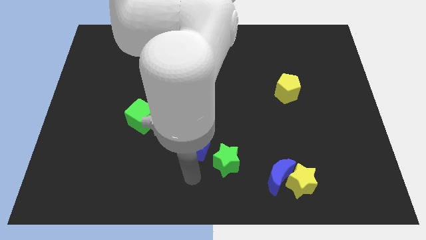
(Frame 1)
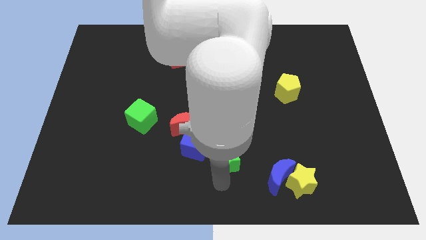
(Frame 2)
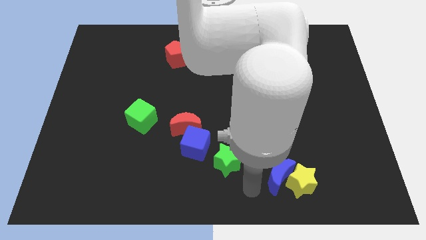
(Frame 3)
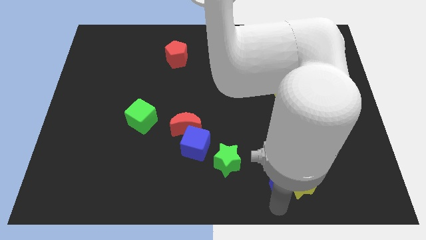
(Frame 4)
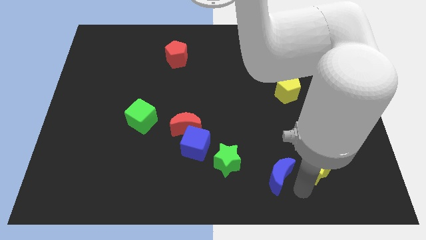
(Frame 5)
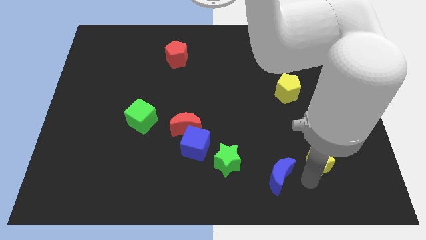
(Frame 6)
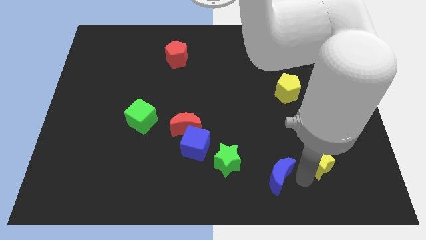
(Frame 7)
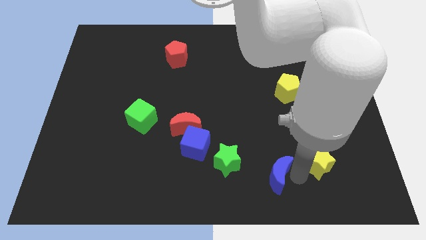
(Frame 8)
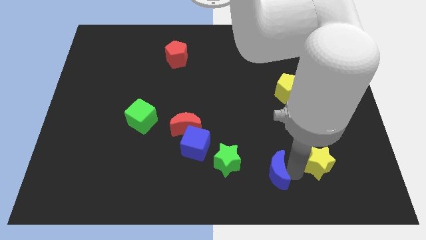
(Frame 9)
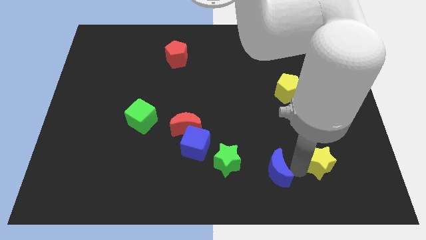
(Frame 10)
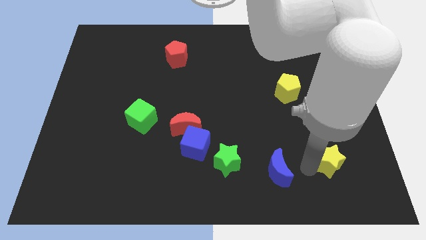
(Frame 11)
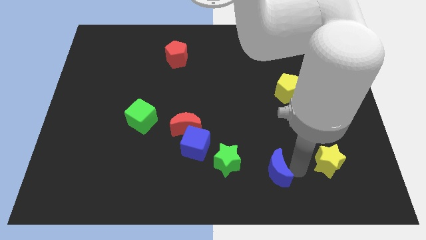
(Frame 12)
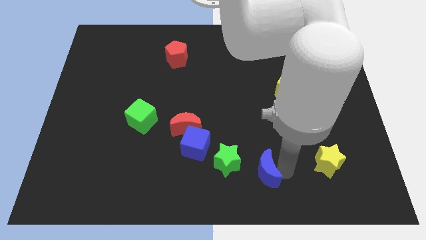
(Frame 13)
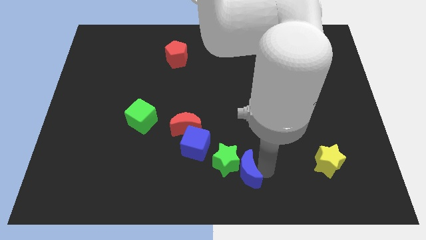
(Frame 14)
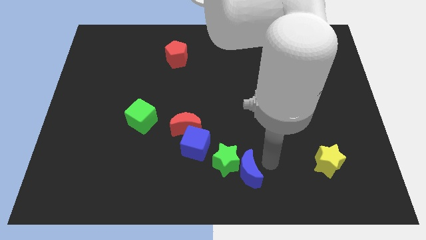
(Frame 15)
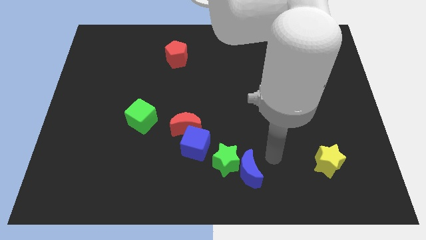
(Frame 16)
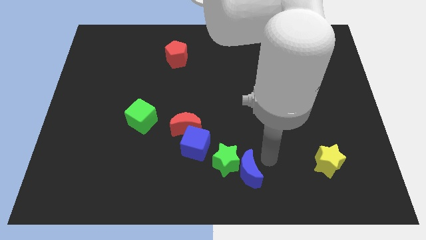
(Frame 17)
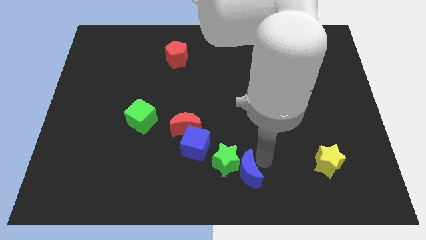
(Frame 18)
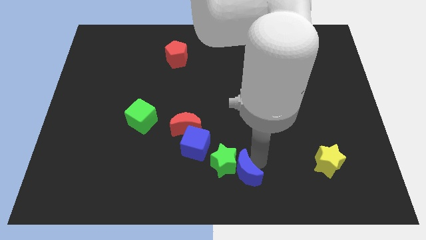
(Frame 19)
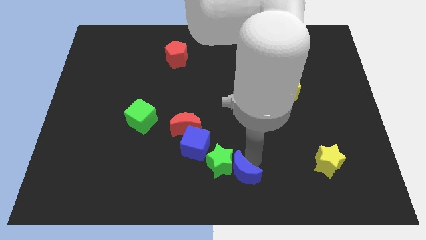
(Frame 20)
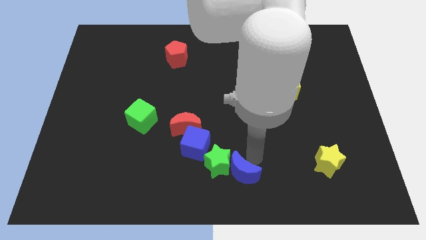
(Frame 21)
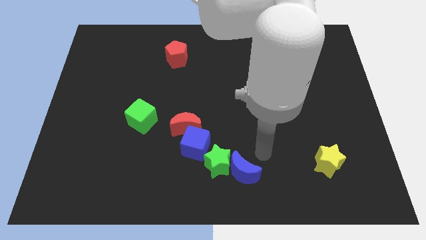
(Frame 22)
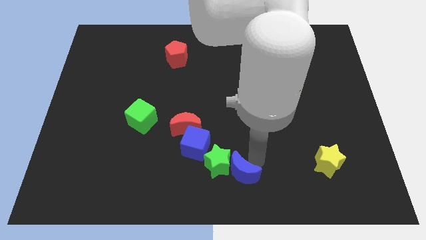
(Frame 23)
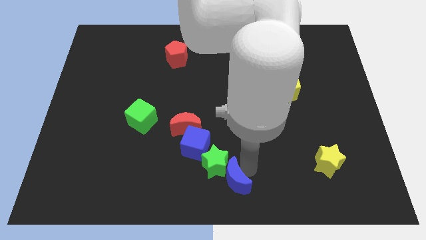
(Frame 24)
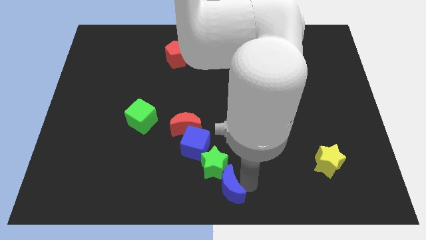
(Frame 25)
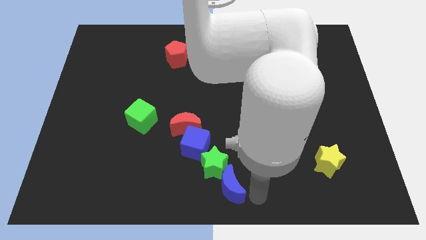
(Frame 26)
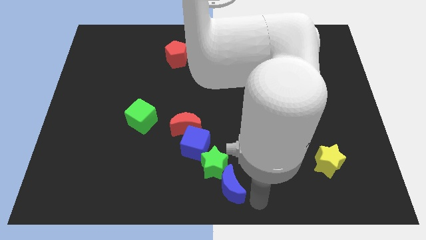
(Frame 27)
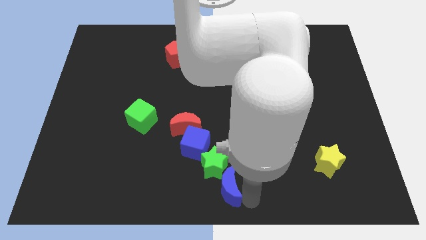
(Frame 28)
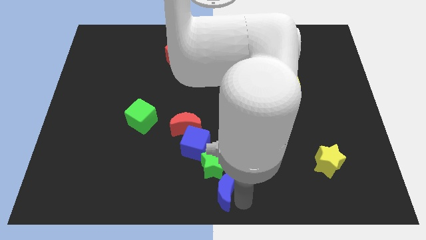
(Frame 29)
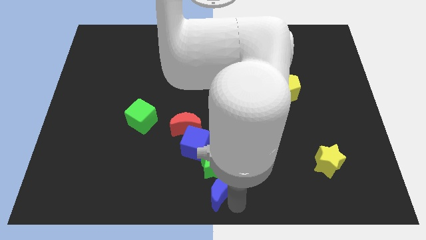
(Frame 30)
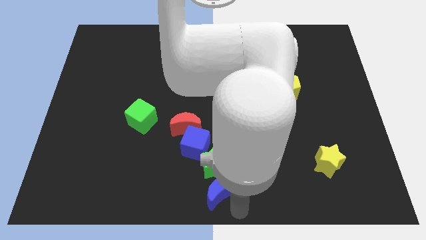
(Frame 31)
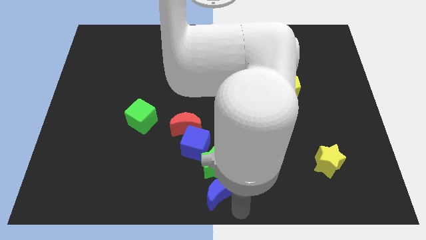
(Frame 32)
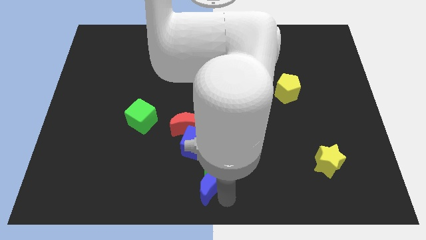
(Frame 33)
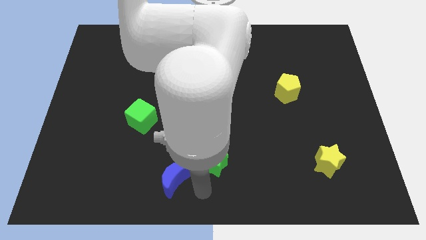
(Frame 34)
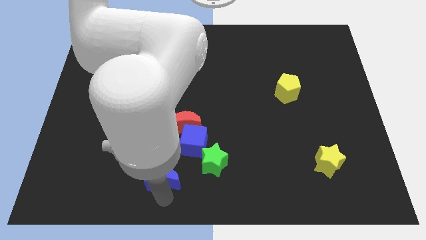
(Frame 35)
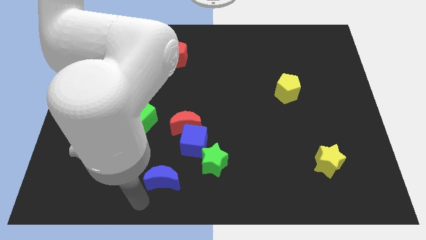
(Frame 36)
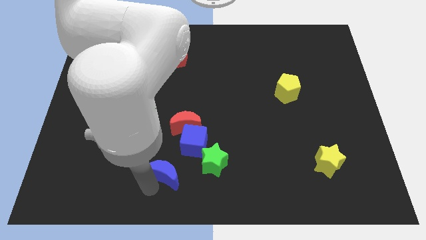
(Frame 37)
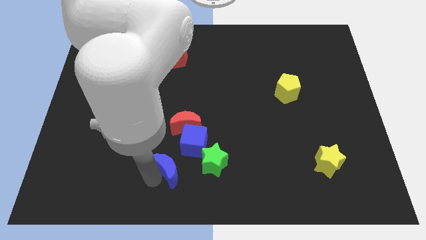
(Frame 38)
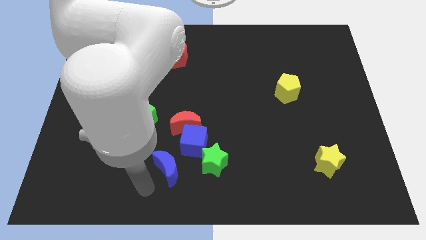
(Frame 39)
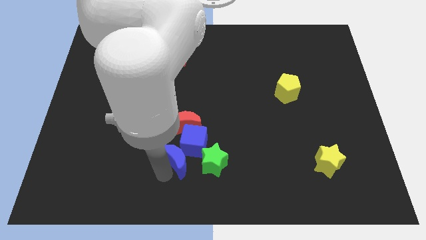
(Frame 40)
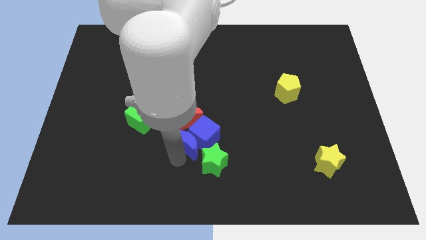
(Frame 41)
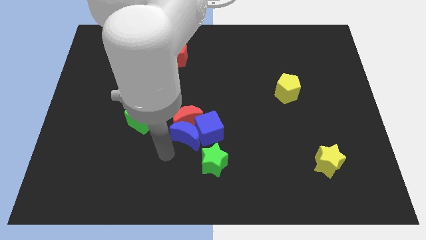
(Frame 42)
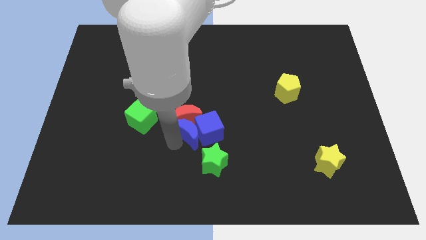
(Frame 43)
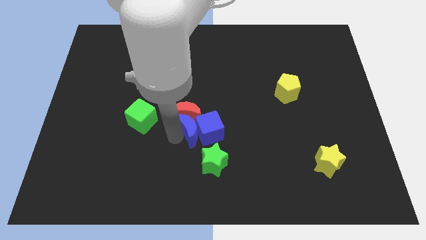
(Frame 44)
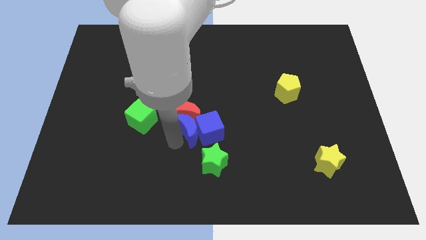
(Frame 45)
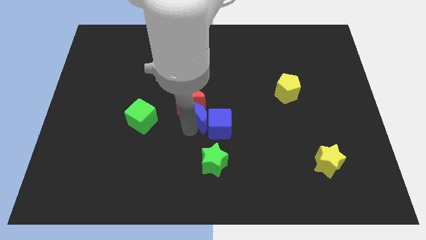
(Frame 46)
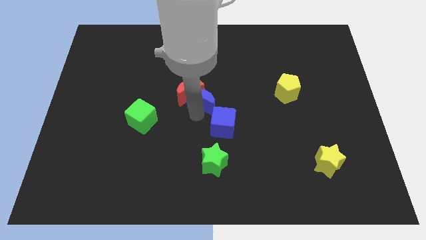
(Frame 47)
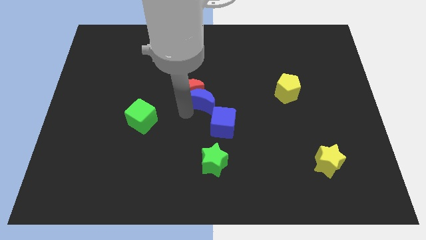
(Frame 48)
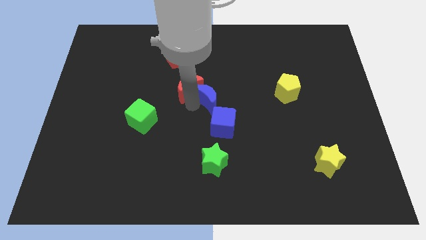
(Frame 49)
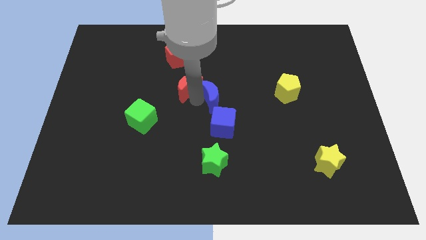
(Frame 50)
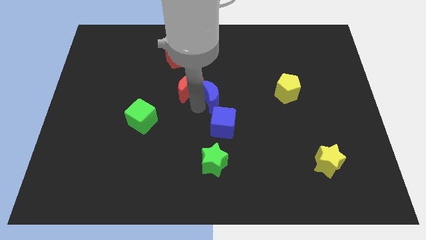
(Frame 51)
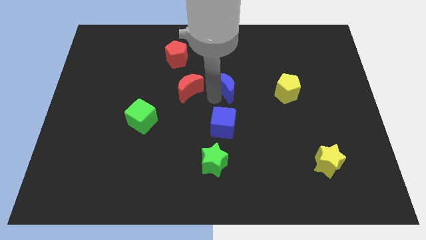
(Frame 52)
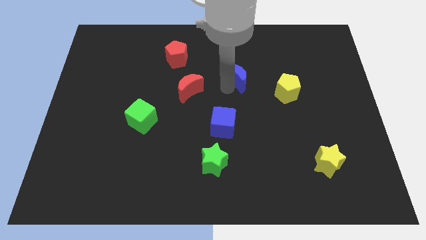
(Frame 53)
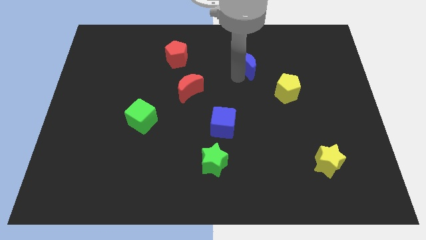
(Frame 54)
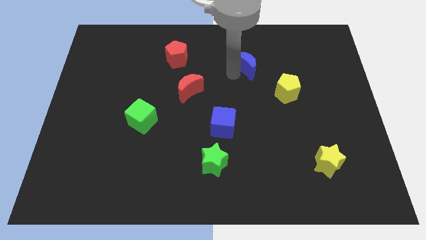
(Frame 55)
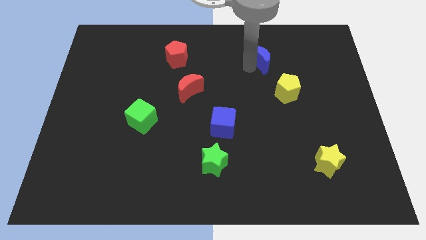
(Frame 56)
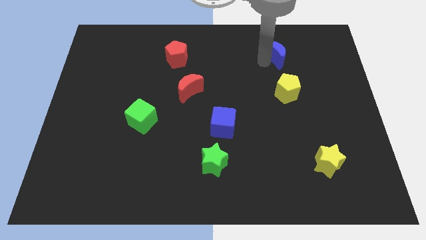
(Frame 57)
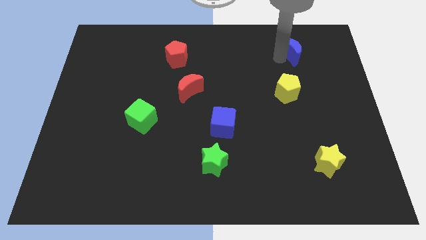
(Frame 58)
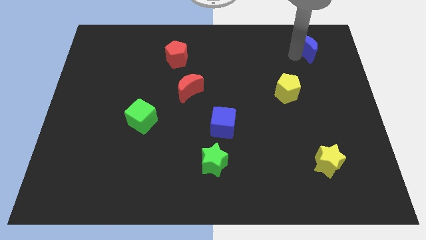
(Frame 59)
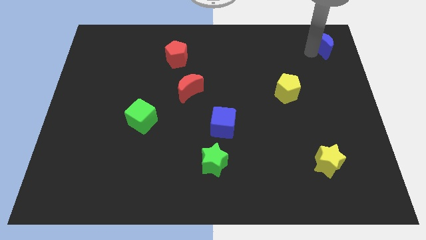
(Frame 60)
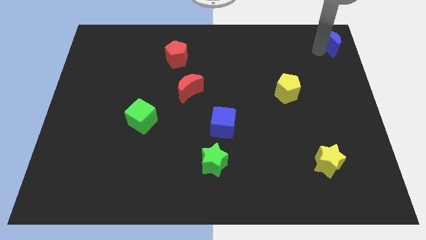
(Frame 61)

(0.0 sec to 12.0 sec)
push the blue moon to the top right

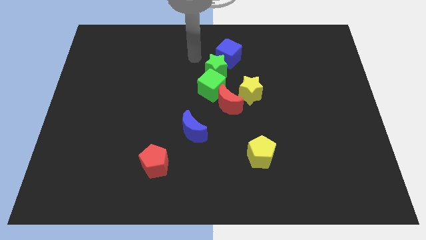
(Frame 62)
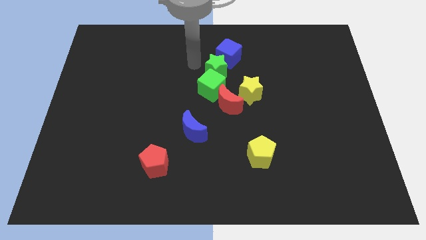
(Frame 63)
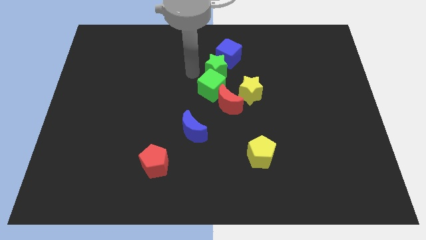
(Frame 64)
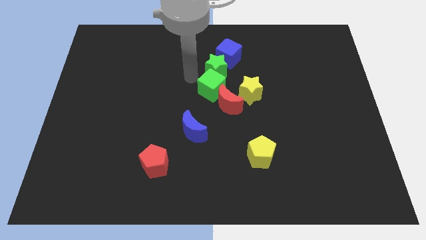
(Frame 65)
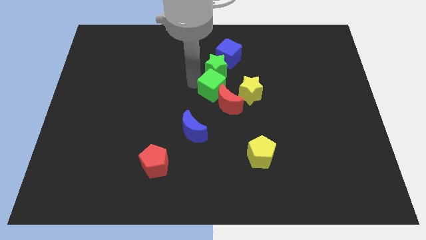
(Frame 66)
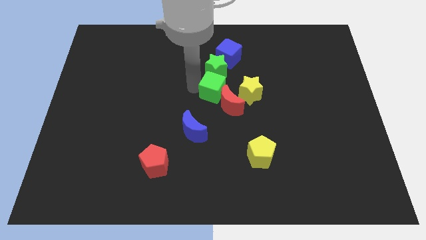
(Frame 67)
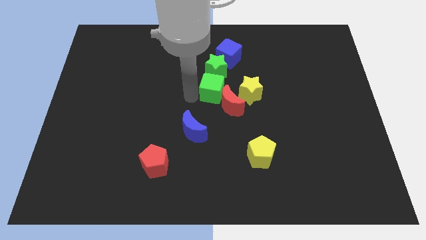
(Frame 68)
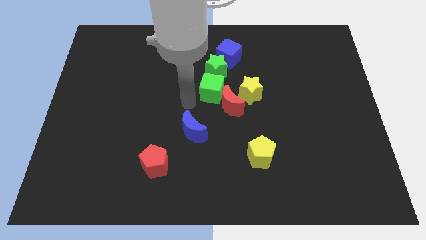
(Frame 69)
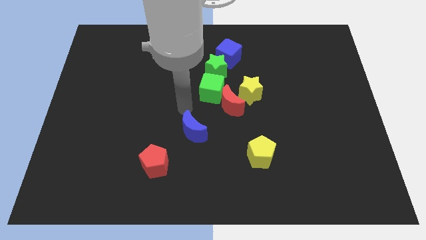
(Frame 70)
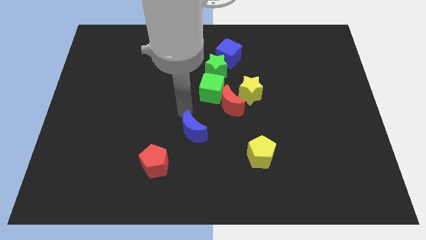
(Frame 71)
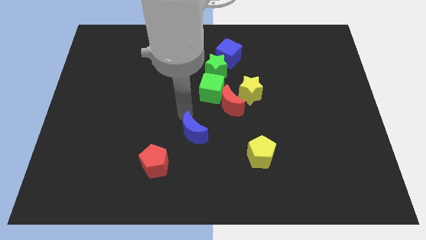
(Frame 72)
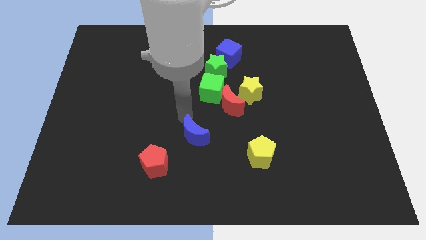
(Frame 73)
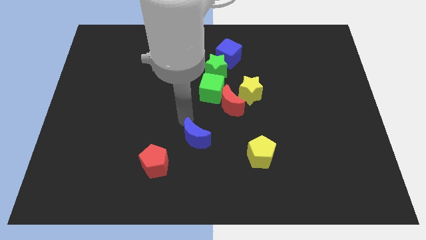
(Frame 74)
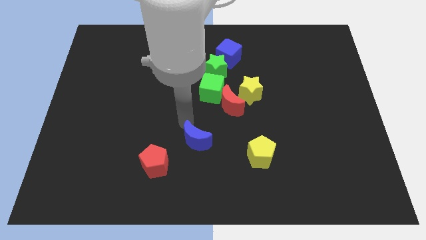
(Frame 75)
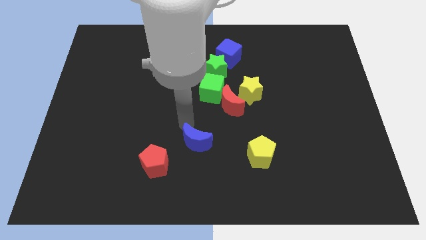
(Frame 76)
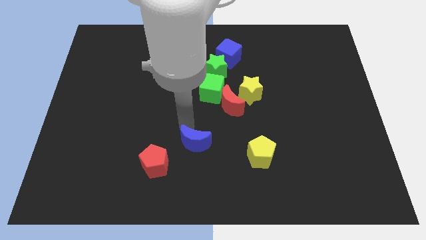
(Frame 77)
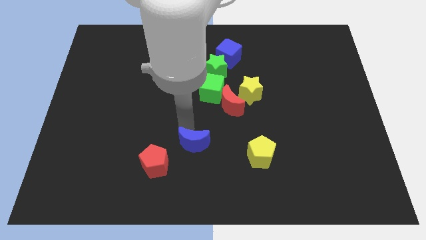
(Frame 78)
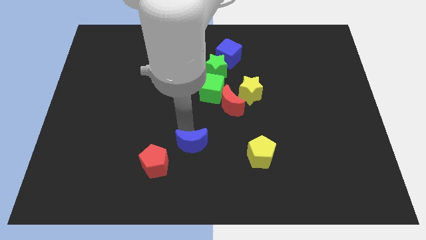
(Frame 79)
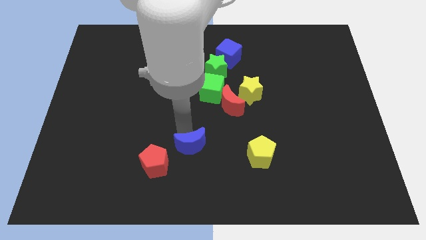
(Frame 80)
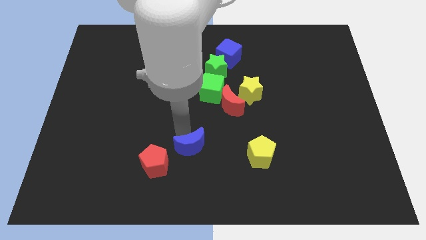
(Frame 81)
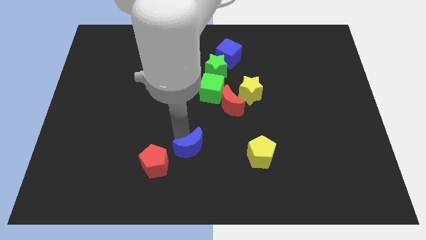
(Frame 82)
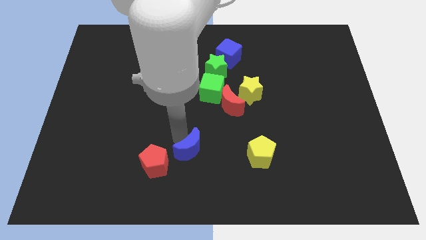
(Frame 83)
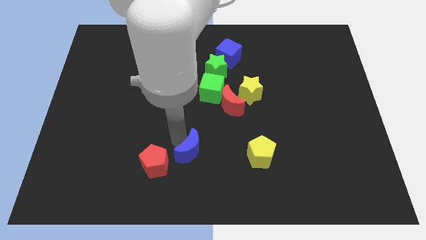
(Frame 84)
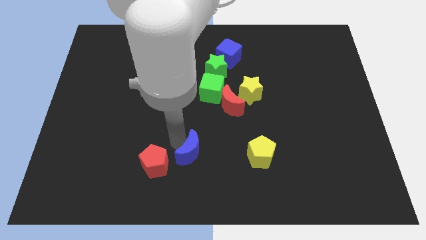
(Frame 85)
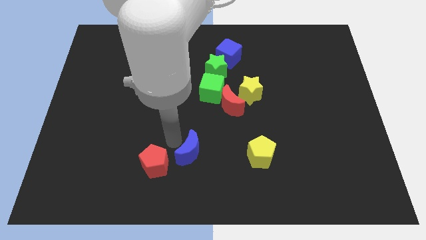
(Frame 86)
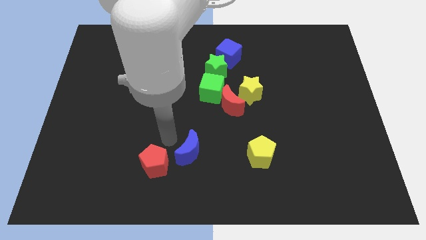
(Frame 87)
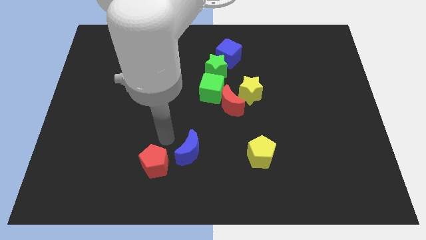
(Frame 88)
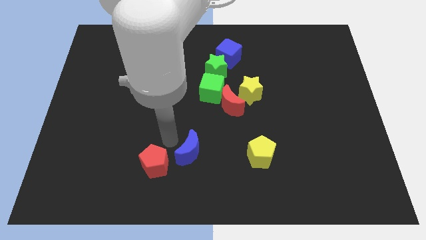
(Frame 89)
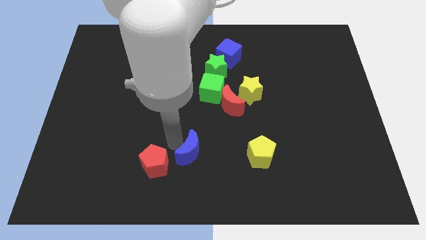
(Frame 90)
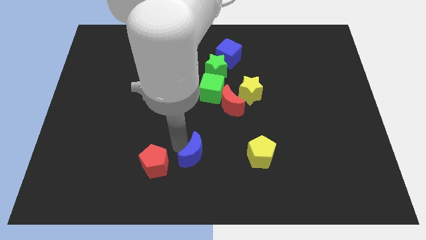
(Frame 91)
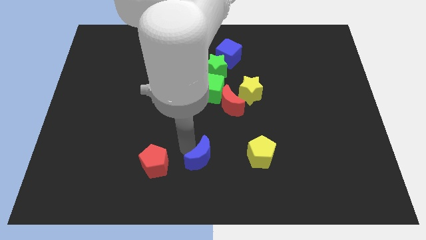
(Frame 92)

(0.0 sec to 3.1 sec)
push the blue moon to the bottom side
